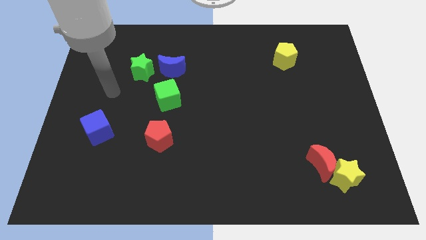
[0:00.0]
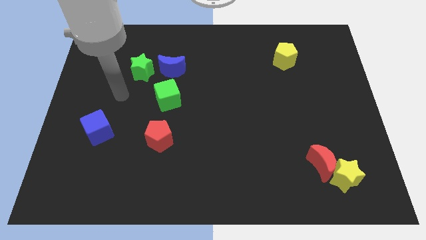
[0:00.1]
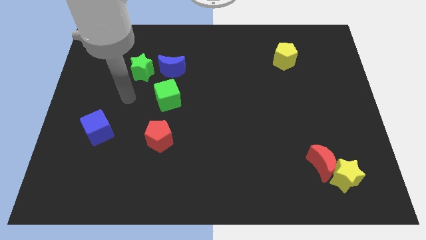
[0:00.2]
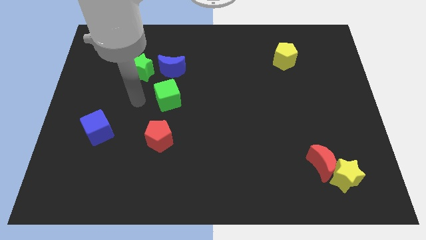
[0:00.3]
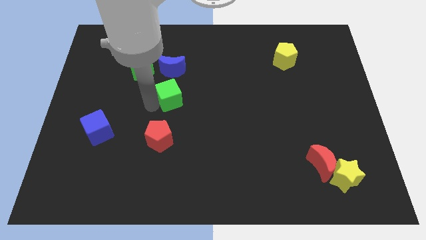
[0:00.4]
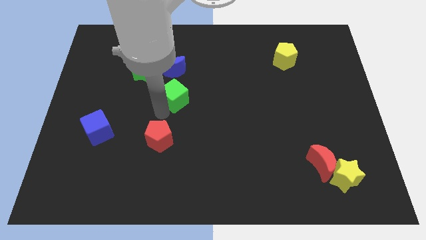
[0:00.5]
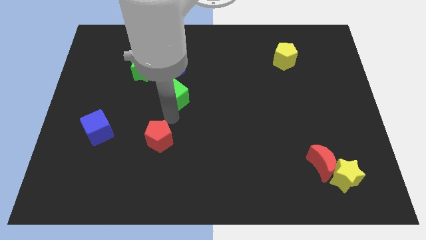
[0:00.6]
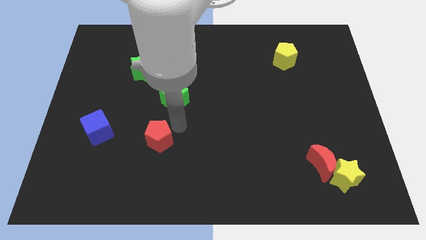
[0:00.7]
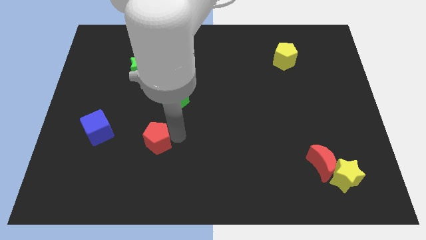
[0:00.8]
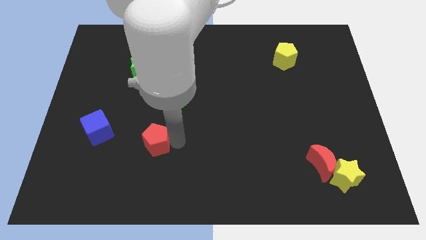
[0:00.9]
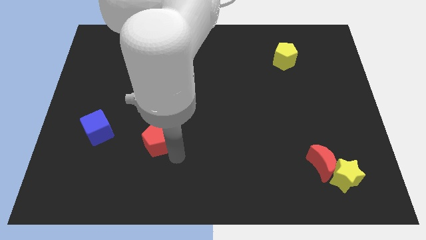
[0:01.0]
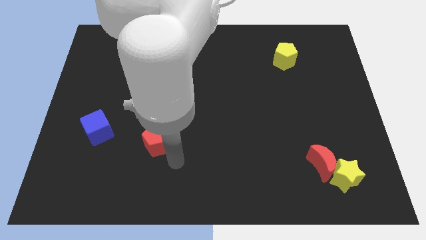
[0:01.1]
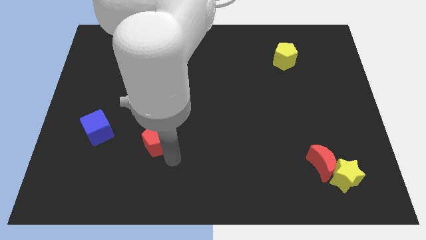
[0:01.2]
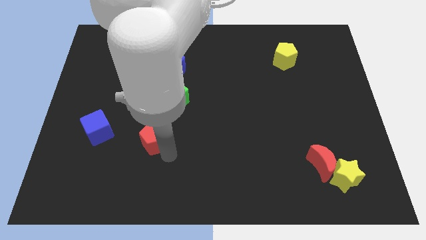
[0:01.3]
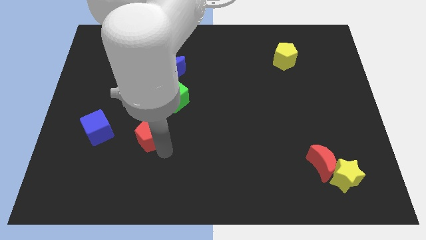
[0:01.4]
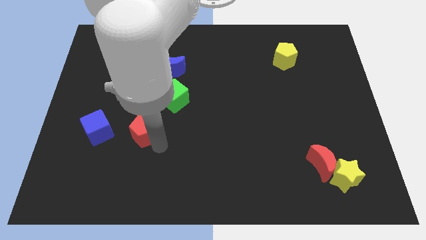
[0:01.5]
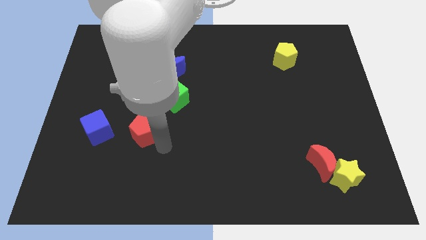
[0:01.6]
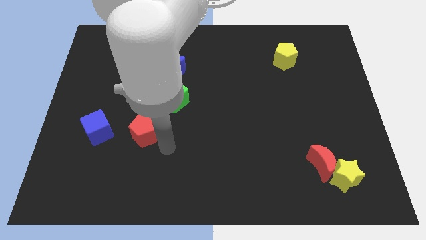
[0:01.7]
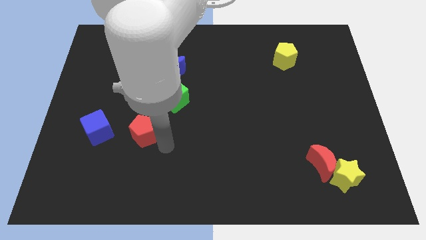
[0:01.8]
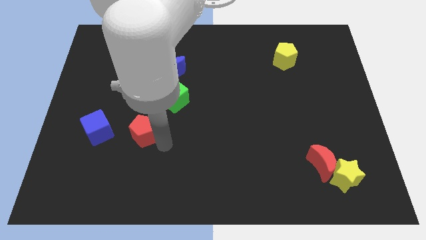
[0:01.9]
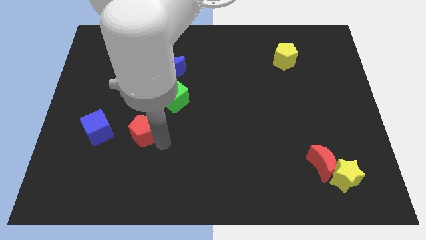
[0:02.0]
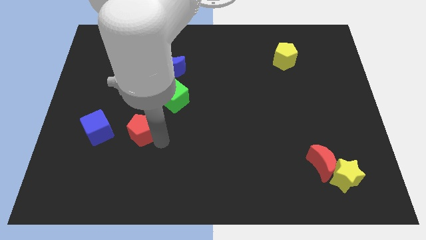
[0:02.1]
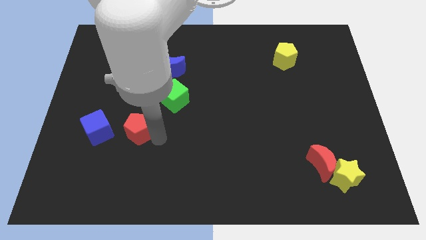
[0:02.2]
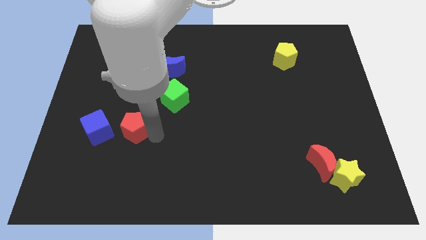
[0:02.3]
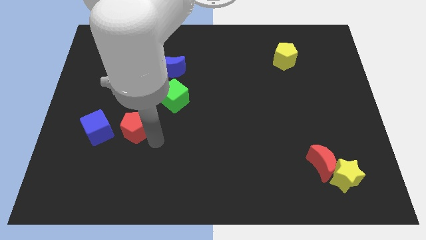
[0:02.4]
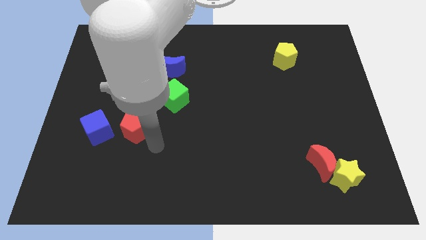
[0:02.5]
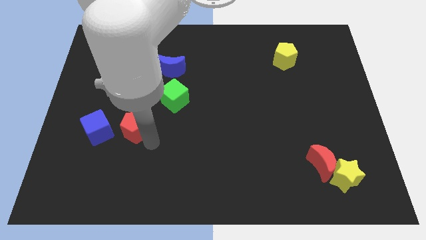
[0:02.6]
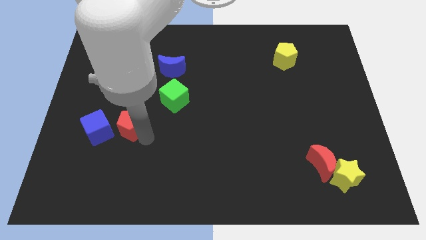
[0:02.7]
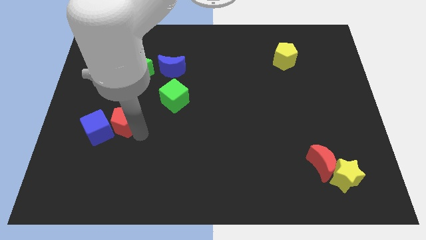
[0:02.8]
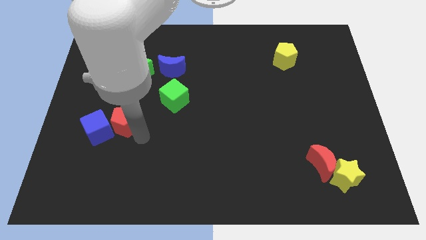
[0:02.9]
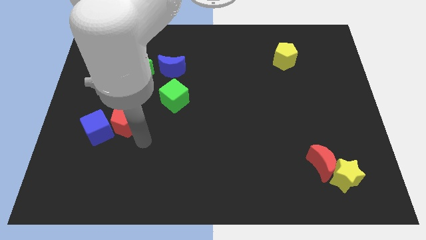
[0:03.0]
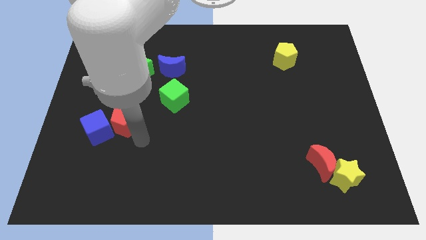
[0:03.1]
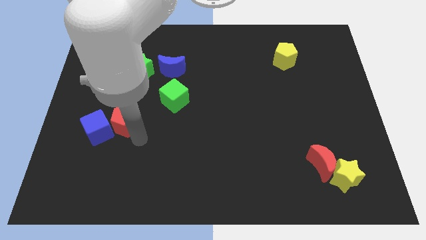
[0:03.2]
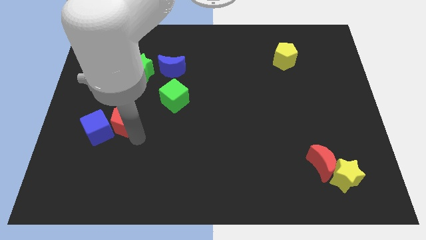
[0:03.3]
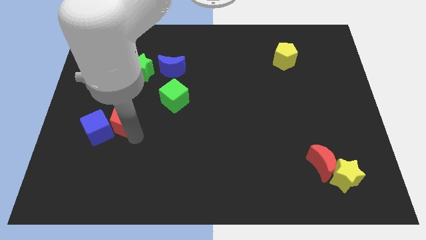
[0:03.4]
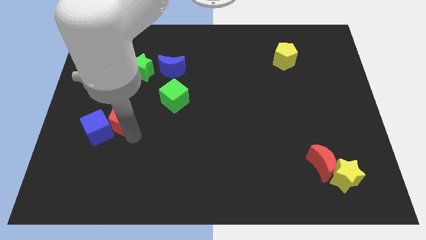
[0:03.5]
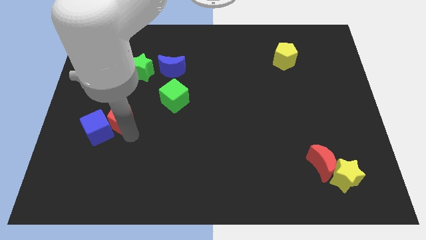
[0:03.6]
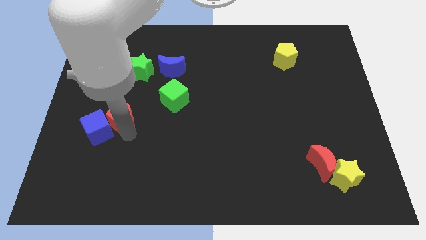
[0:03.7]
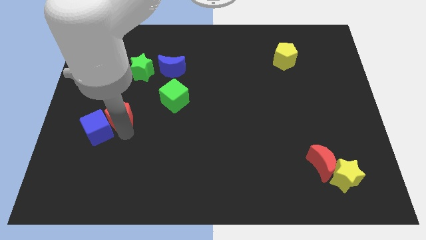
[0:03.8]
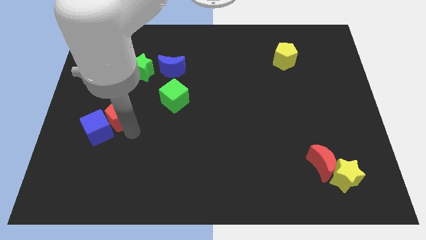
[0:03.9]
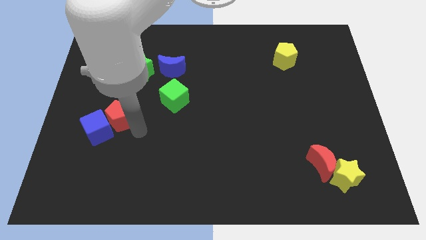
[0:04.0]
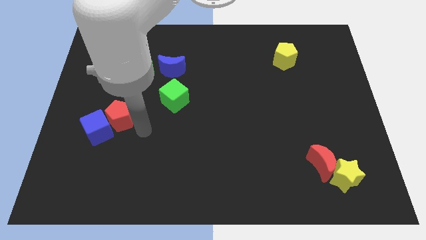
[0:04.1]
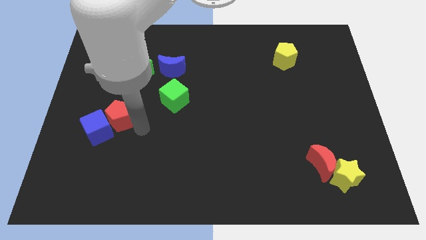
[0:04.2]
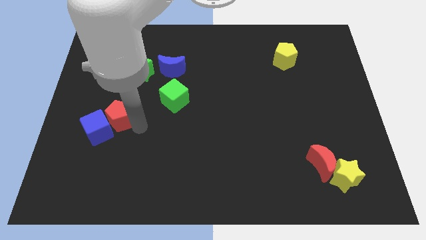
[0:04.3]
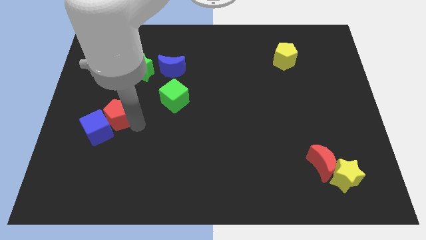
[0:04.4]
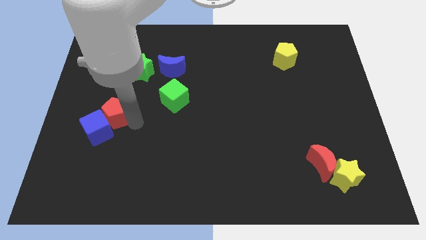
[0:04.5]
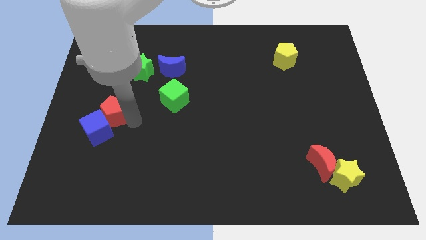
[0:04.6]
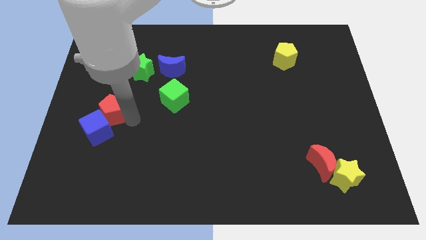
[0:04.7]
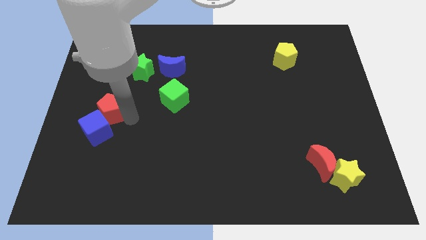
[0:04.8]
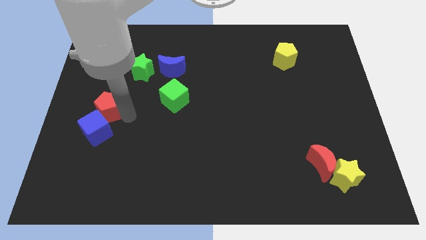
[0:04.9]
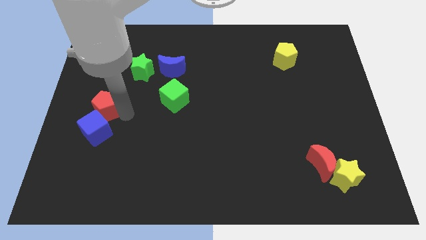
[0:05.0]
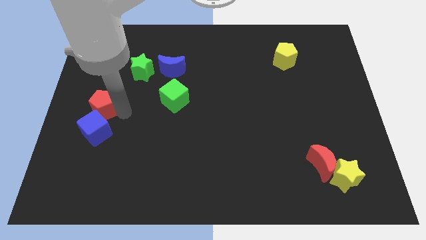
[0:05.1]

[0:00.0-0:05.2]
slide the red pentagon to the left side of the board
